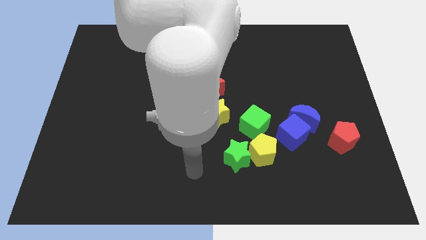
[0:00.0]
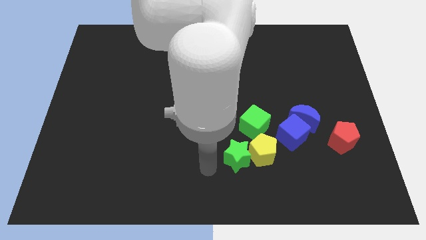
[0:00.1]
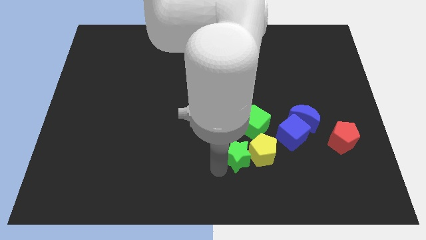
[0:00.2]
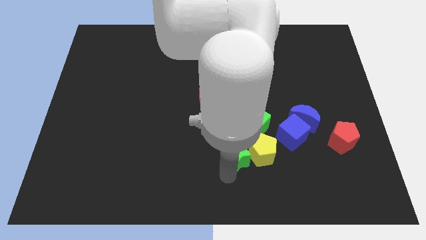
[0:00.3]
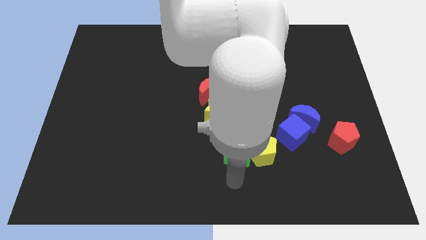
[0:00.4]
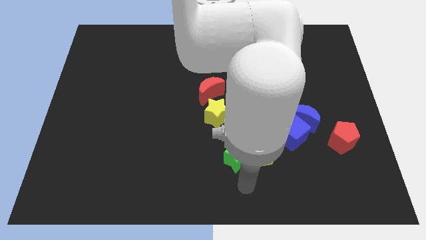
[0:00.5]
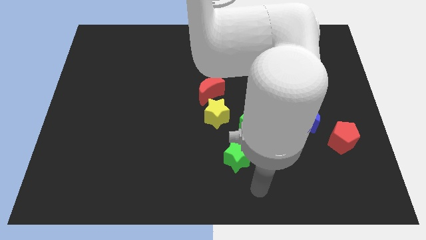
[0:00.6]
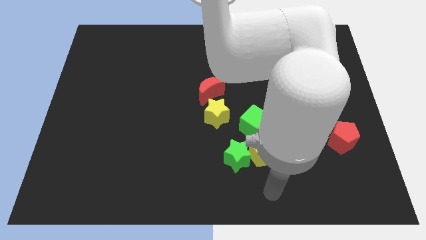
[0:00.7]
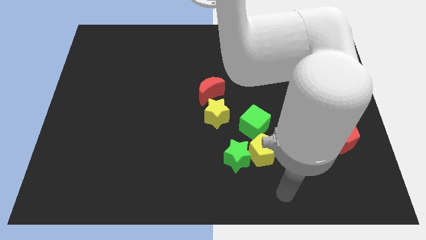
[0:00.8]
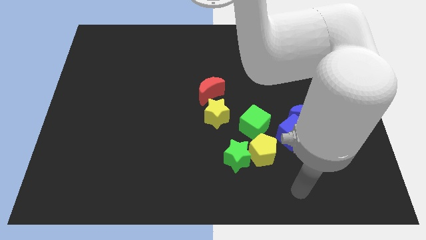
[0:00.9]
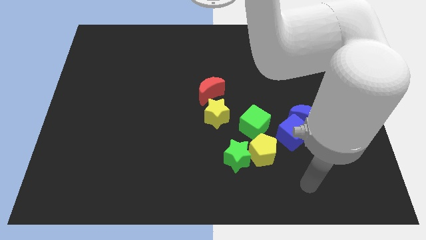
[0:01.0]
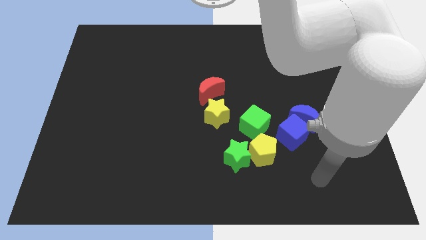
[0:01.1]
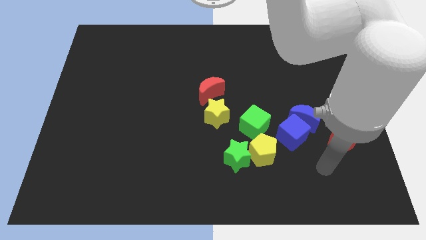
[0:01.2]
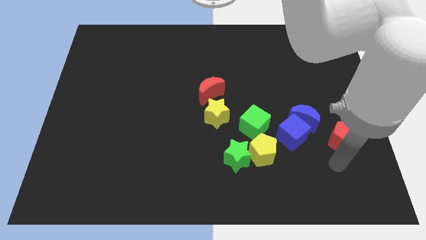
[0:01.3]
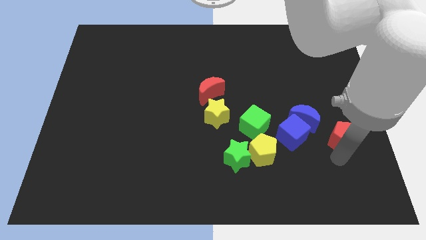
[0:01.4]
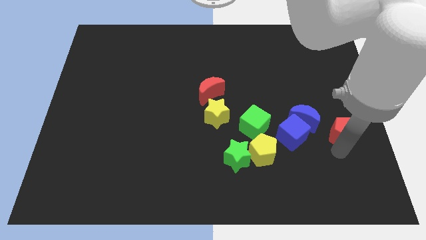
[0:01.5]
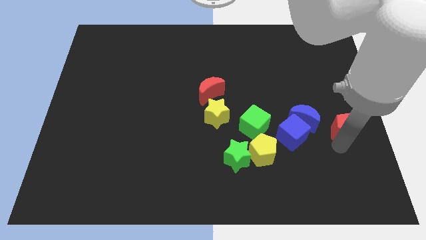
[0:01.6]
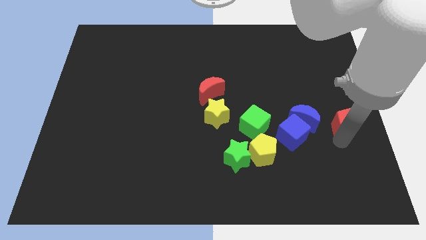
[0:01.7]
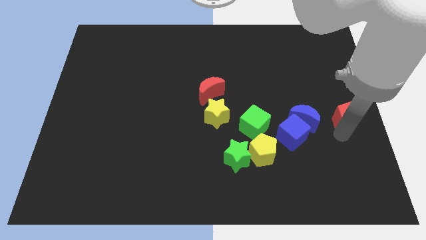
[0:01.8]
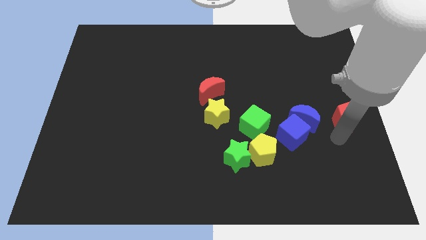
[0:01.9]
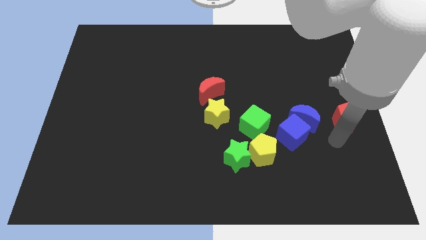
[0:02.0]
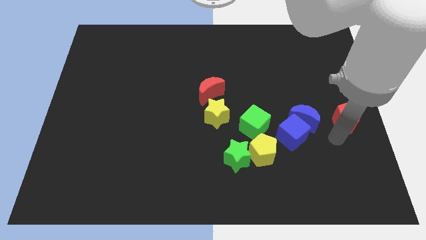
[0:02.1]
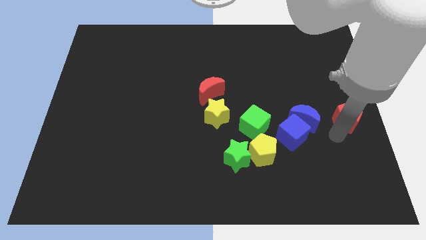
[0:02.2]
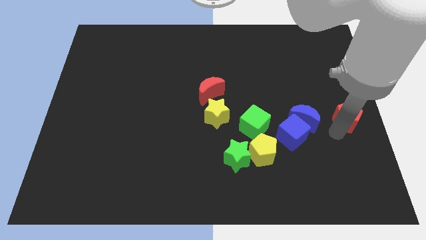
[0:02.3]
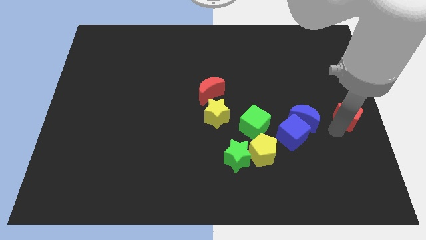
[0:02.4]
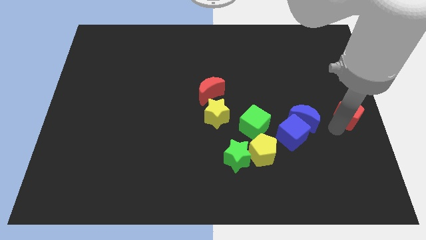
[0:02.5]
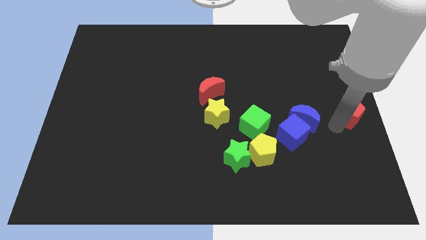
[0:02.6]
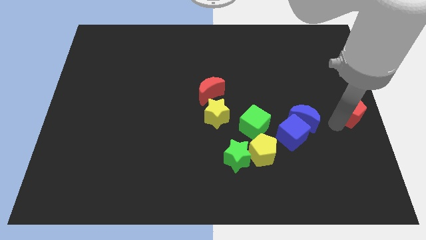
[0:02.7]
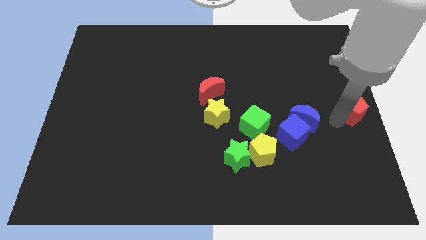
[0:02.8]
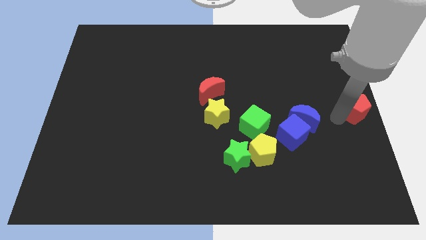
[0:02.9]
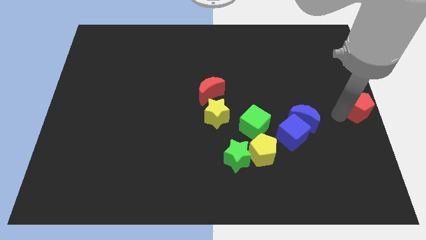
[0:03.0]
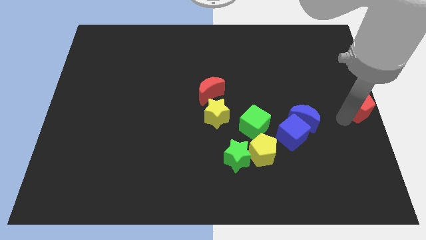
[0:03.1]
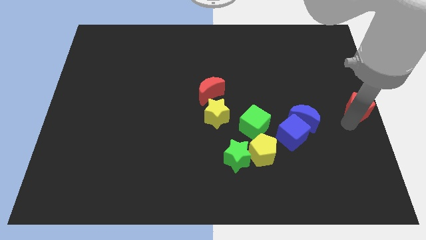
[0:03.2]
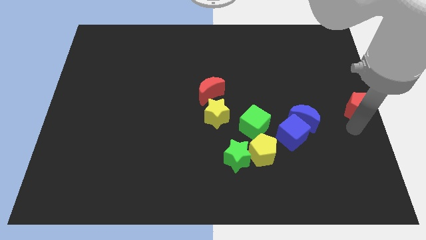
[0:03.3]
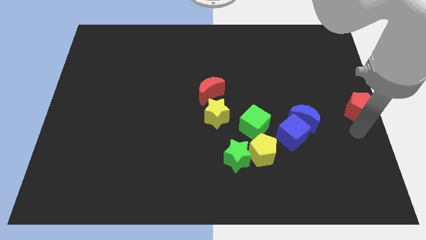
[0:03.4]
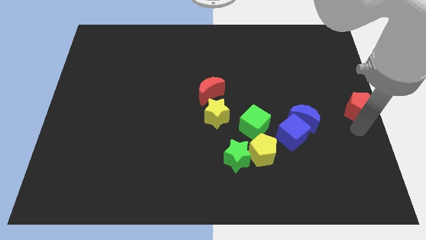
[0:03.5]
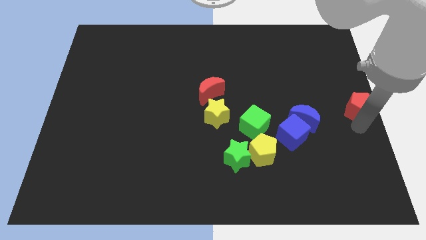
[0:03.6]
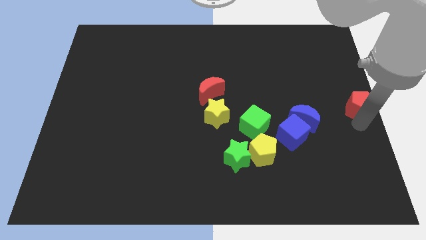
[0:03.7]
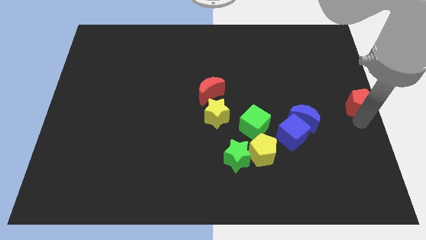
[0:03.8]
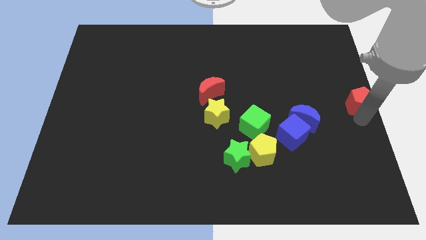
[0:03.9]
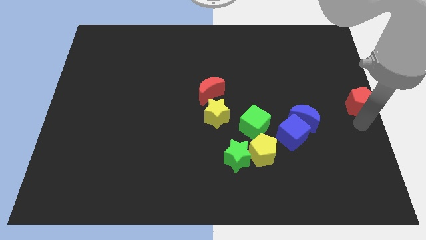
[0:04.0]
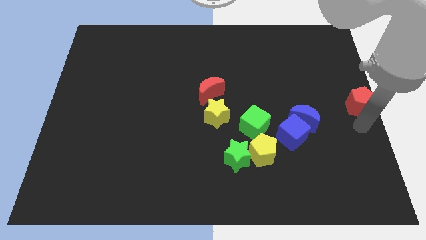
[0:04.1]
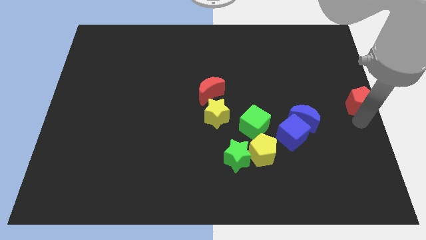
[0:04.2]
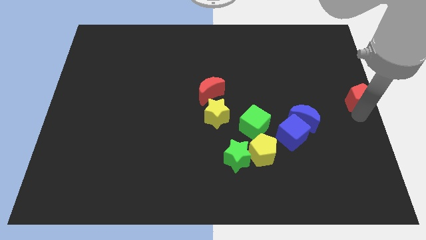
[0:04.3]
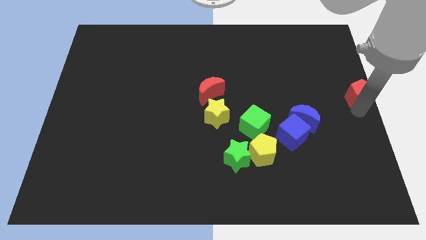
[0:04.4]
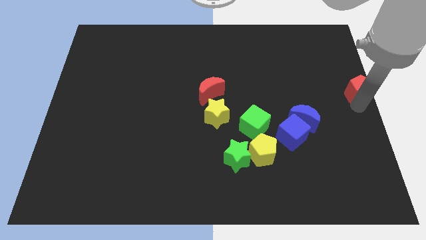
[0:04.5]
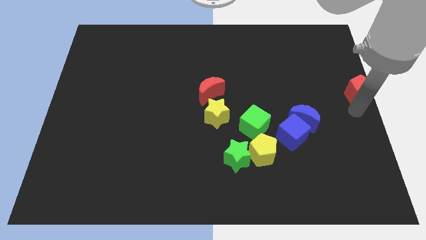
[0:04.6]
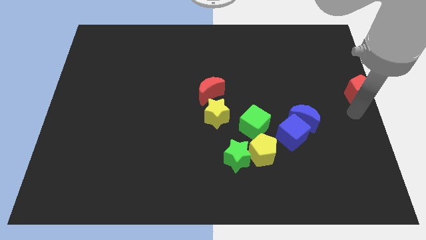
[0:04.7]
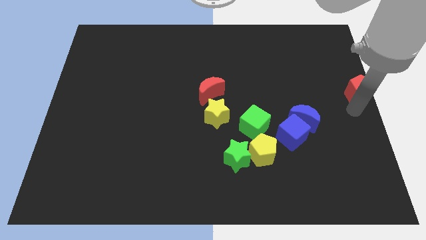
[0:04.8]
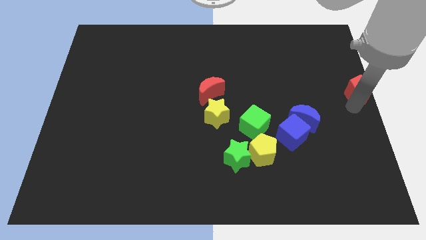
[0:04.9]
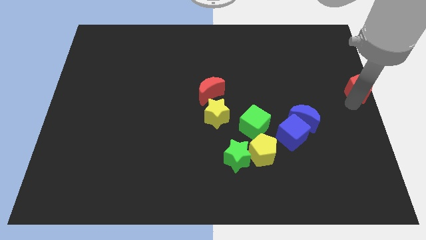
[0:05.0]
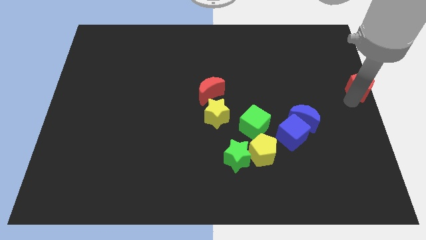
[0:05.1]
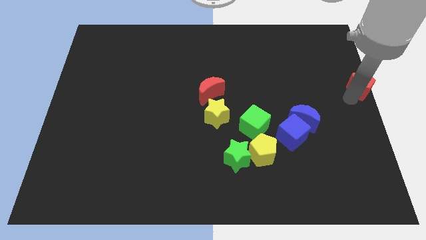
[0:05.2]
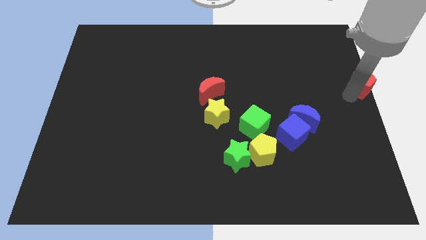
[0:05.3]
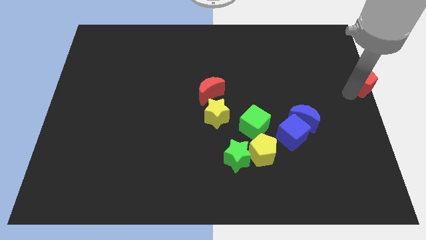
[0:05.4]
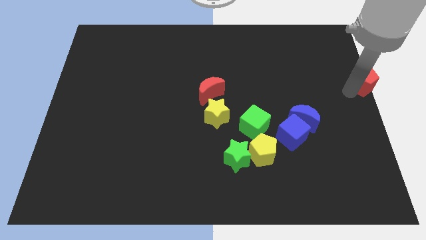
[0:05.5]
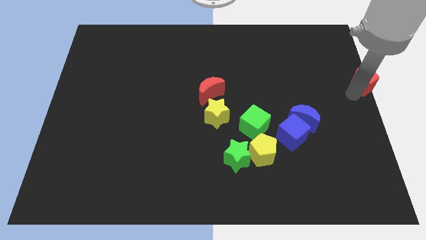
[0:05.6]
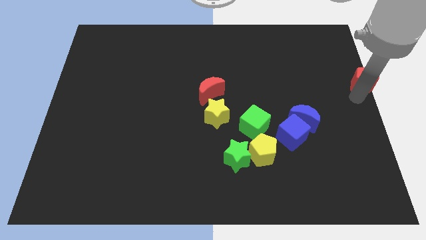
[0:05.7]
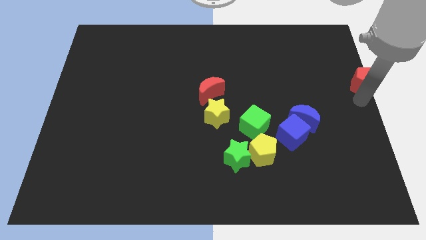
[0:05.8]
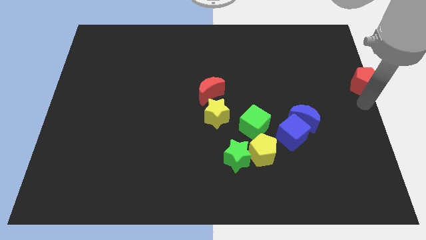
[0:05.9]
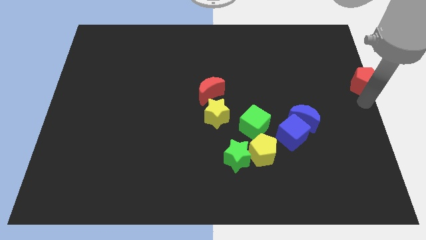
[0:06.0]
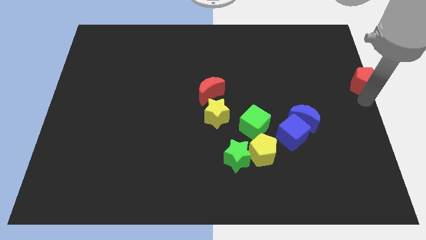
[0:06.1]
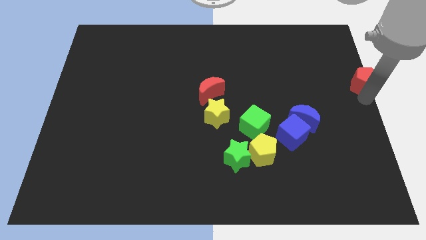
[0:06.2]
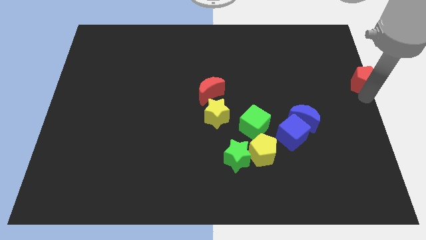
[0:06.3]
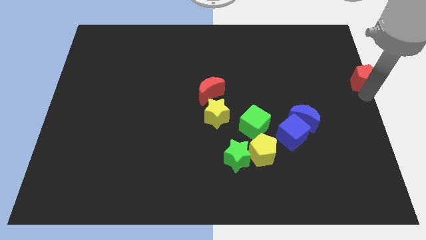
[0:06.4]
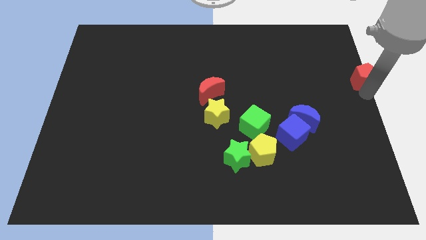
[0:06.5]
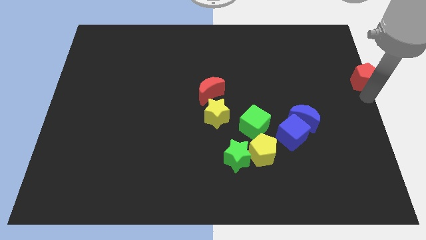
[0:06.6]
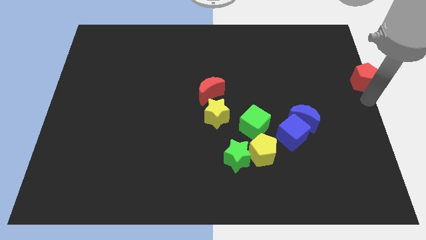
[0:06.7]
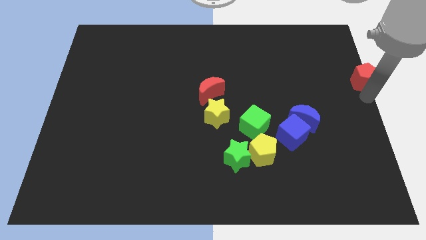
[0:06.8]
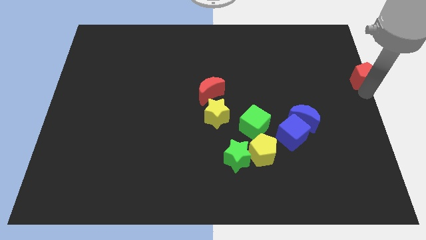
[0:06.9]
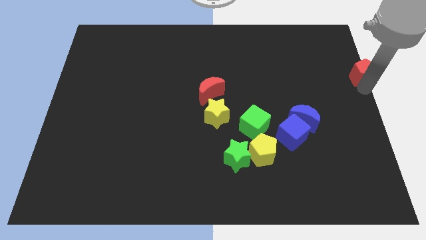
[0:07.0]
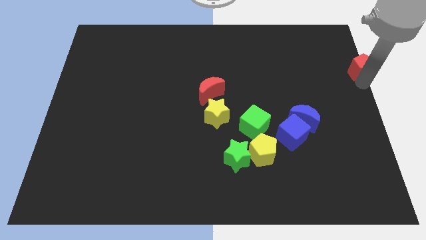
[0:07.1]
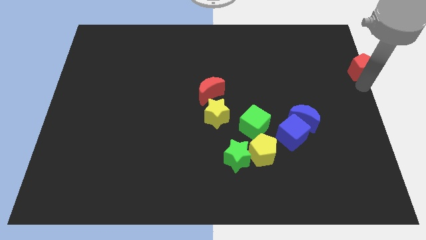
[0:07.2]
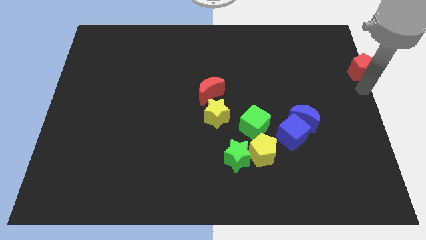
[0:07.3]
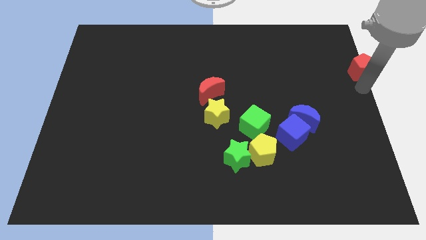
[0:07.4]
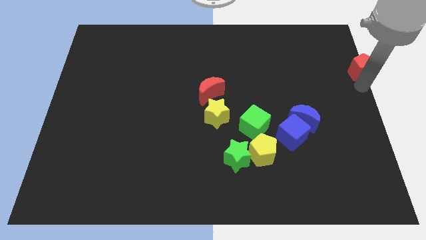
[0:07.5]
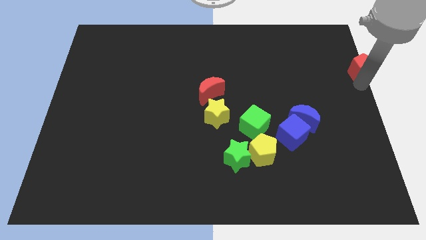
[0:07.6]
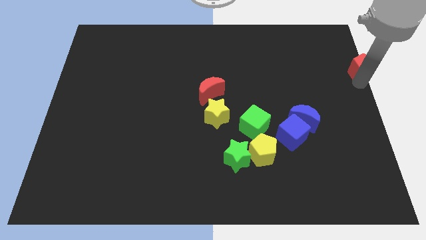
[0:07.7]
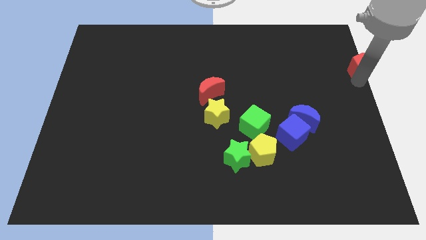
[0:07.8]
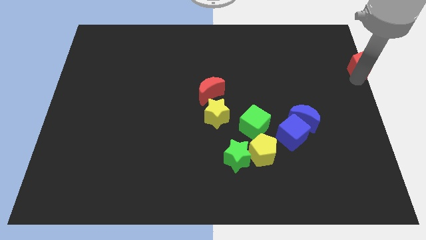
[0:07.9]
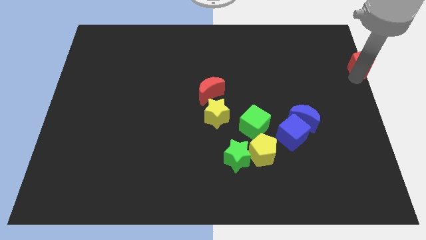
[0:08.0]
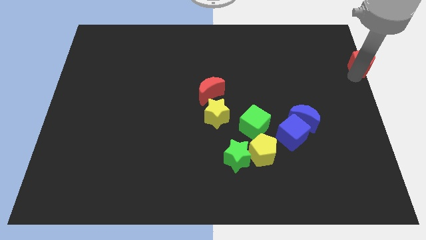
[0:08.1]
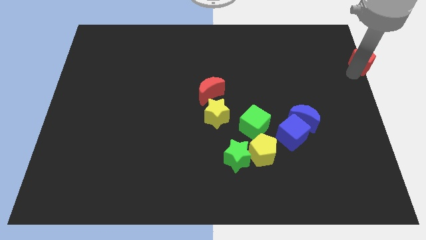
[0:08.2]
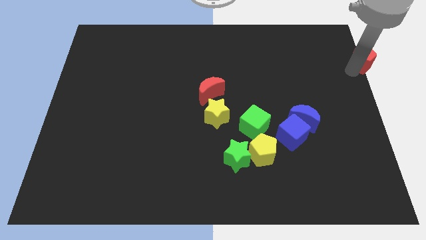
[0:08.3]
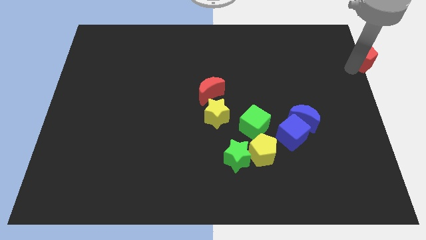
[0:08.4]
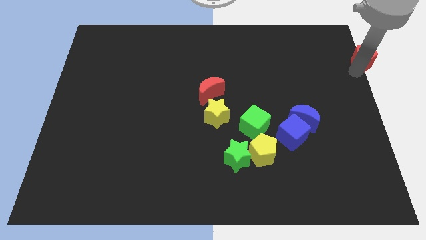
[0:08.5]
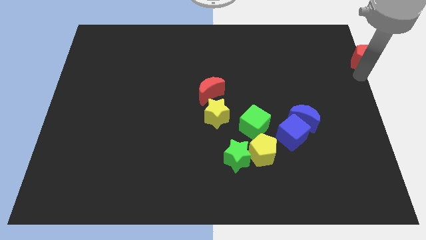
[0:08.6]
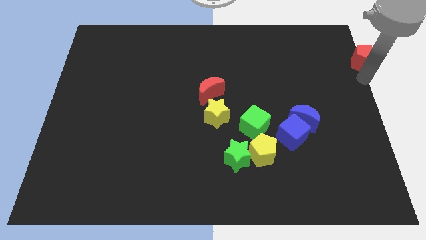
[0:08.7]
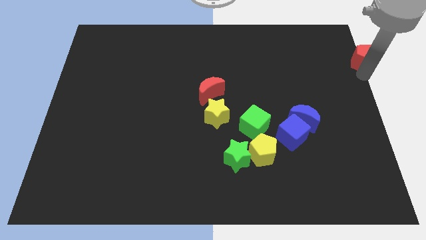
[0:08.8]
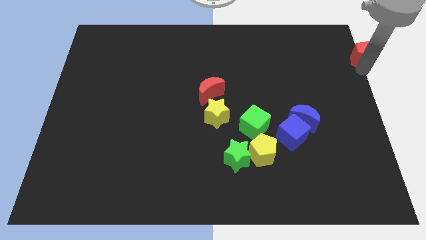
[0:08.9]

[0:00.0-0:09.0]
put the red pentagon to the top right corner
